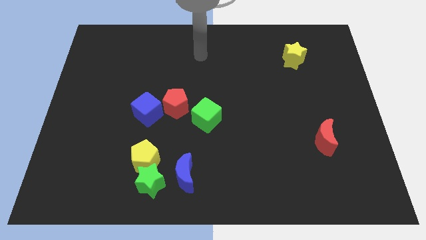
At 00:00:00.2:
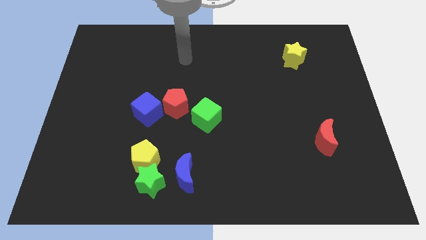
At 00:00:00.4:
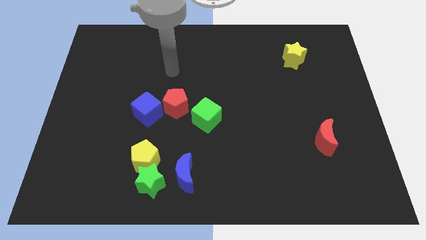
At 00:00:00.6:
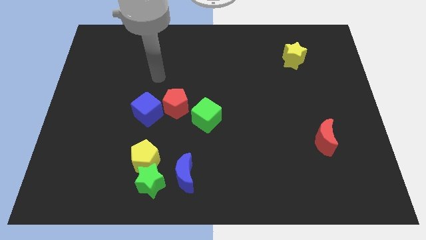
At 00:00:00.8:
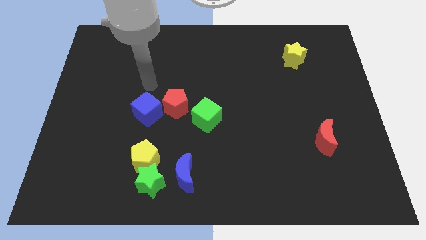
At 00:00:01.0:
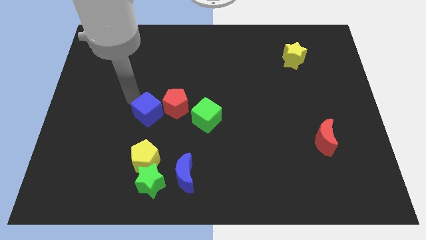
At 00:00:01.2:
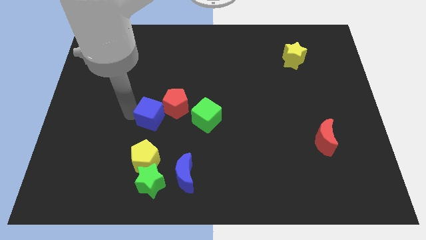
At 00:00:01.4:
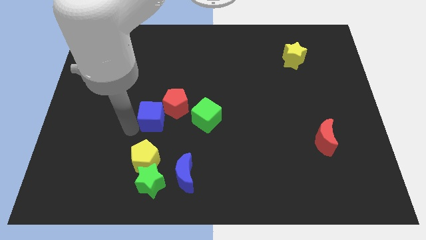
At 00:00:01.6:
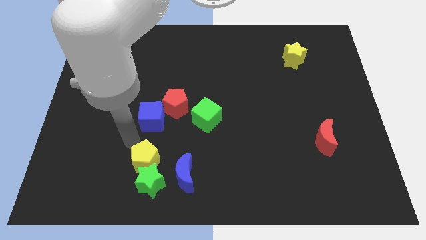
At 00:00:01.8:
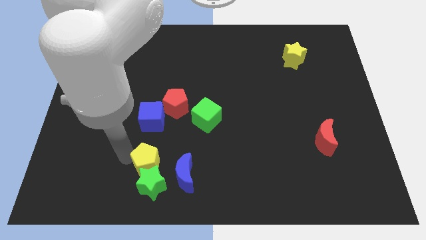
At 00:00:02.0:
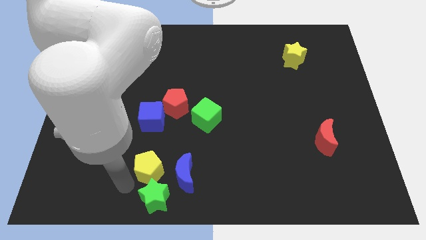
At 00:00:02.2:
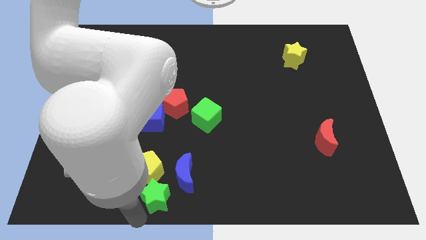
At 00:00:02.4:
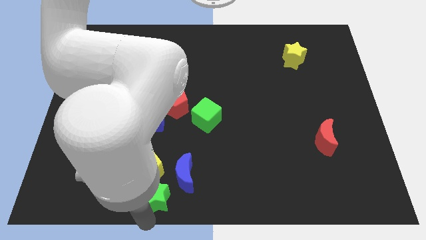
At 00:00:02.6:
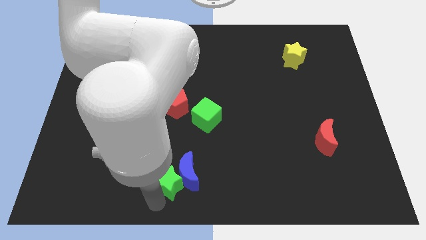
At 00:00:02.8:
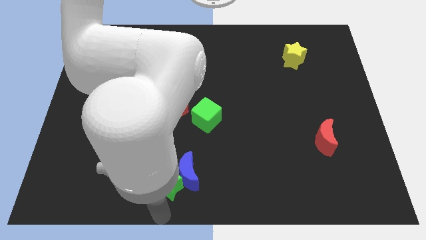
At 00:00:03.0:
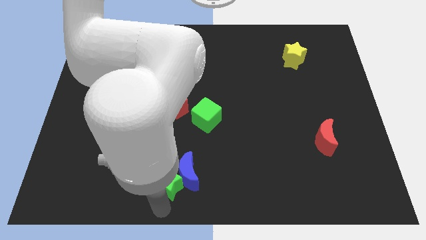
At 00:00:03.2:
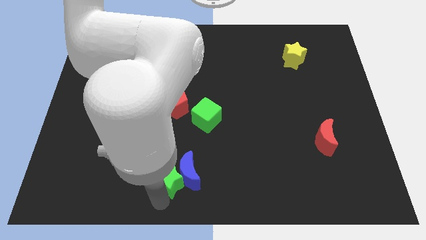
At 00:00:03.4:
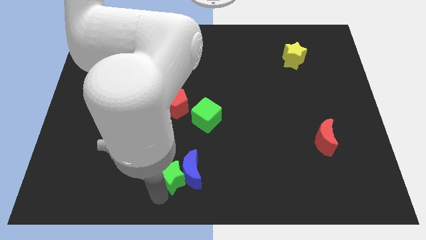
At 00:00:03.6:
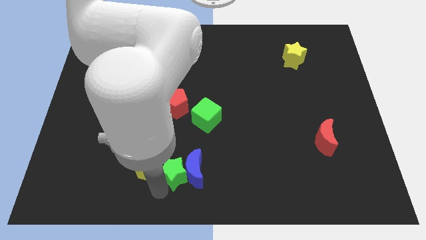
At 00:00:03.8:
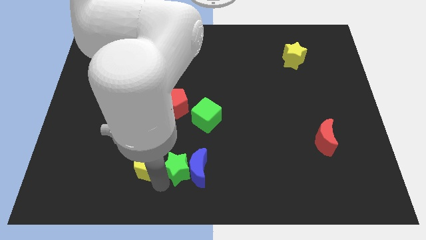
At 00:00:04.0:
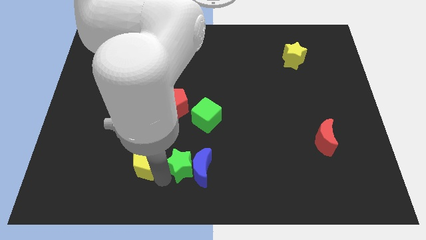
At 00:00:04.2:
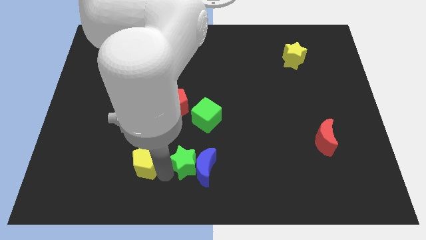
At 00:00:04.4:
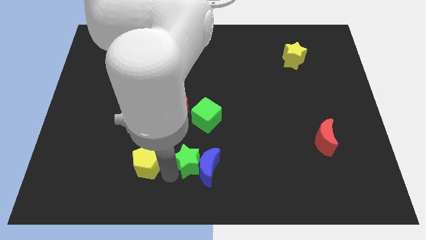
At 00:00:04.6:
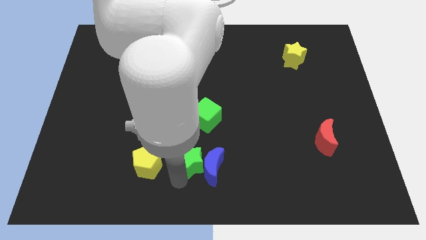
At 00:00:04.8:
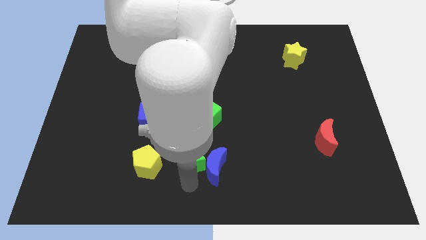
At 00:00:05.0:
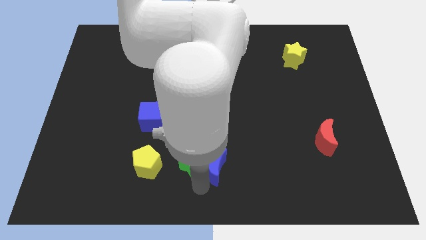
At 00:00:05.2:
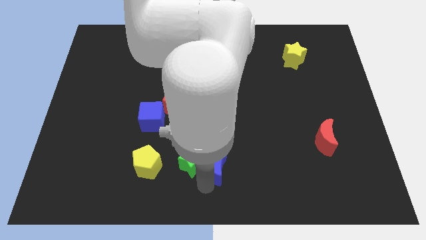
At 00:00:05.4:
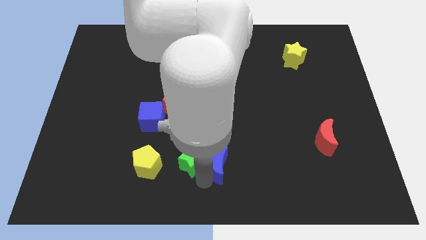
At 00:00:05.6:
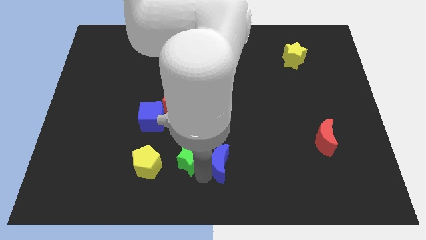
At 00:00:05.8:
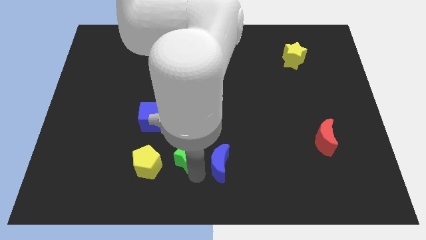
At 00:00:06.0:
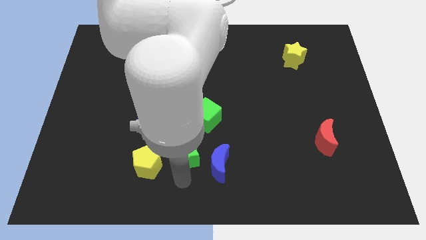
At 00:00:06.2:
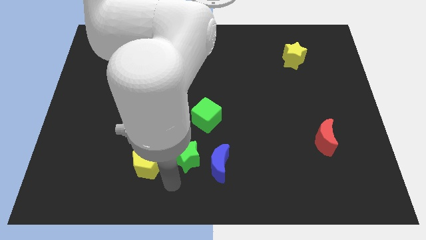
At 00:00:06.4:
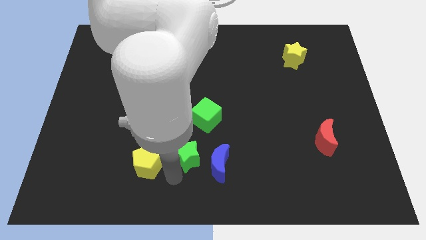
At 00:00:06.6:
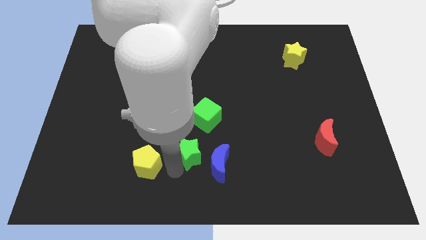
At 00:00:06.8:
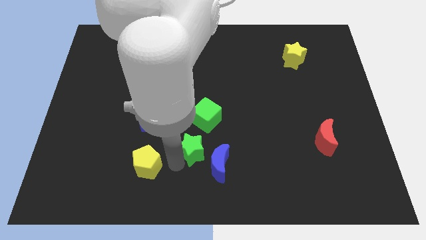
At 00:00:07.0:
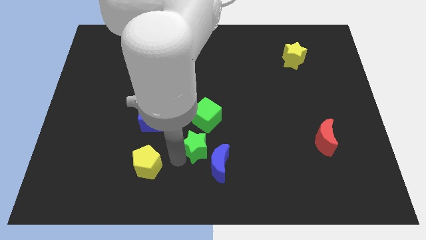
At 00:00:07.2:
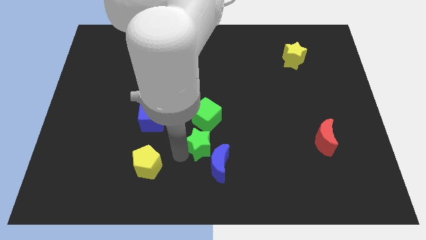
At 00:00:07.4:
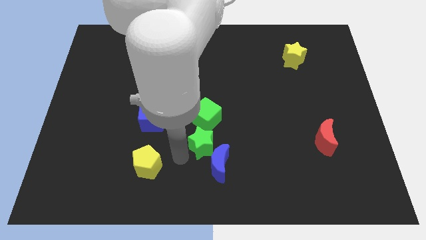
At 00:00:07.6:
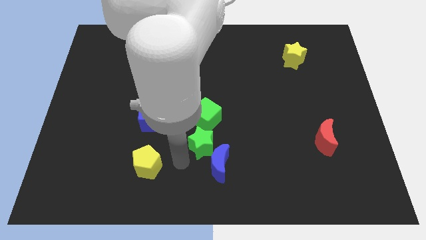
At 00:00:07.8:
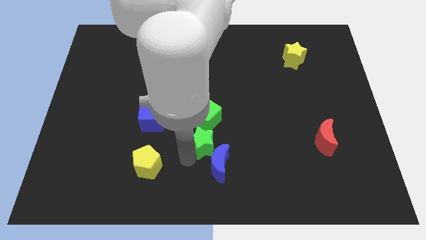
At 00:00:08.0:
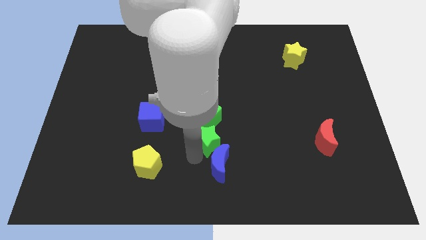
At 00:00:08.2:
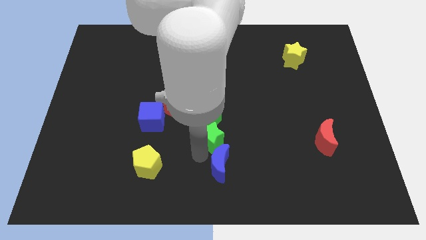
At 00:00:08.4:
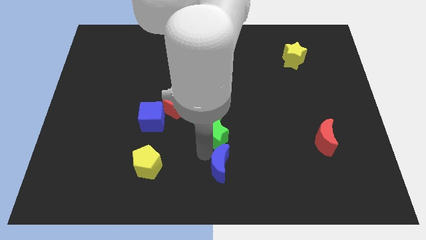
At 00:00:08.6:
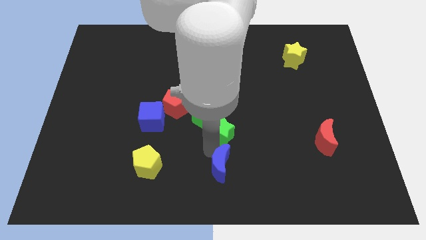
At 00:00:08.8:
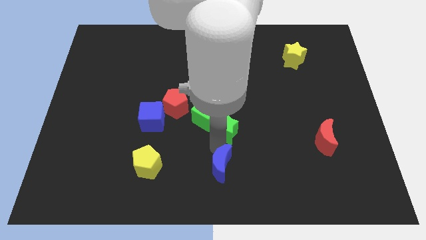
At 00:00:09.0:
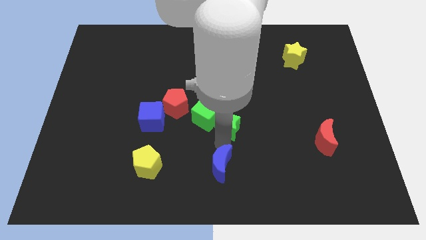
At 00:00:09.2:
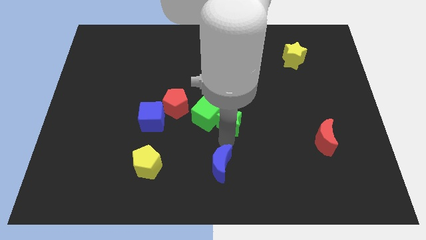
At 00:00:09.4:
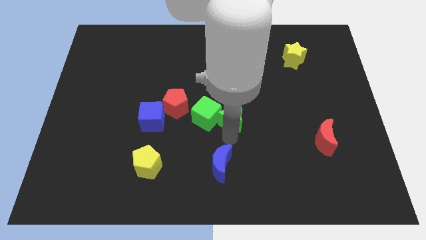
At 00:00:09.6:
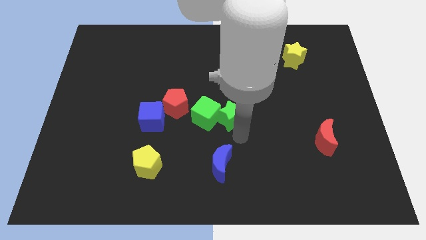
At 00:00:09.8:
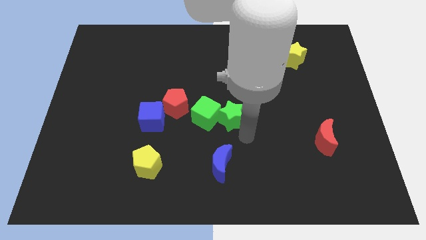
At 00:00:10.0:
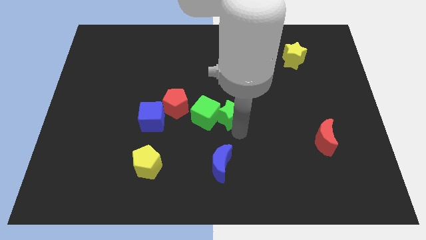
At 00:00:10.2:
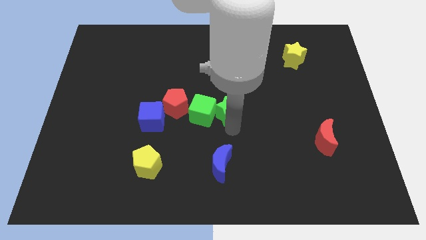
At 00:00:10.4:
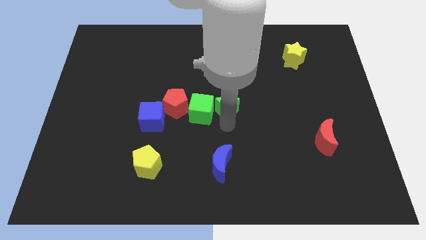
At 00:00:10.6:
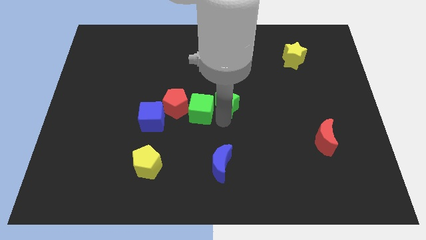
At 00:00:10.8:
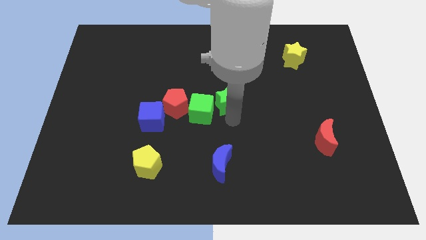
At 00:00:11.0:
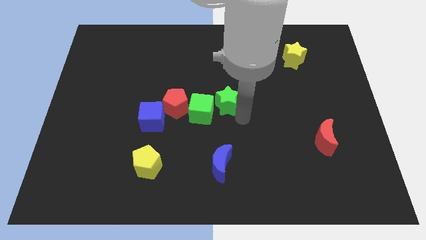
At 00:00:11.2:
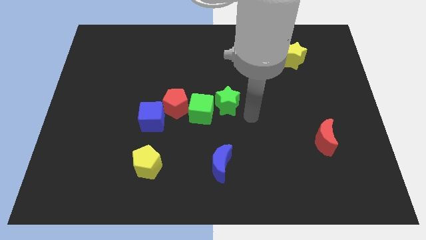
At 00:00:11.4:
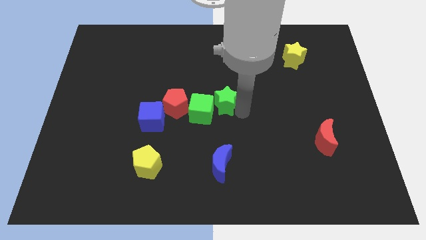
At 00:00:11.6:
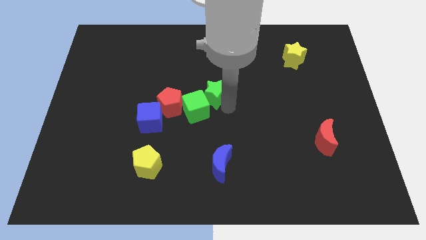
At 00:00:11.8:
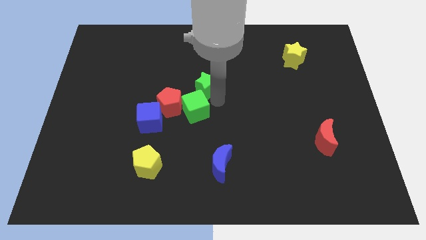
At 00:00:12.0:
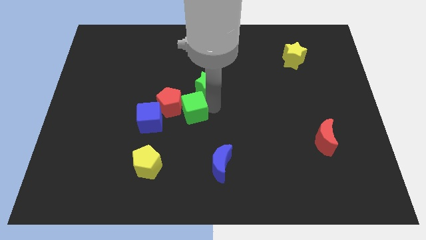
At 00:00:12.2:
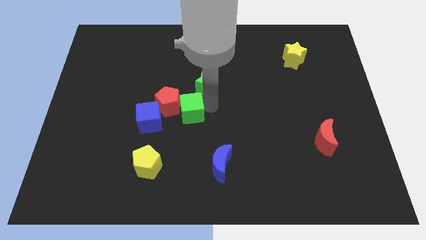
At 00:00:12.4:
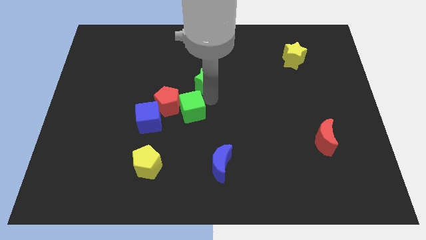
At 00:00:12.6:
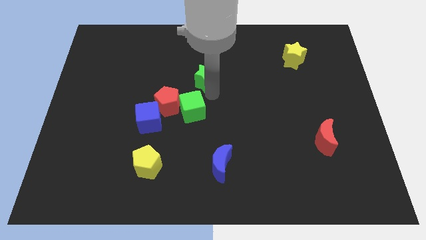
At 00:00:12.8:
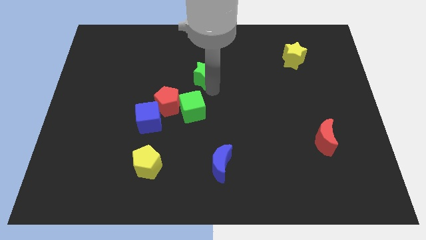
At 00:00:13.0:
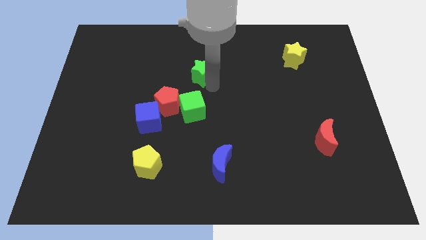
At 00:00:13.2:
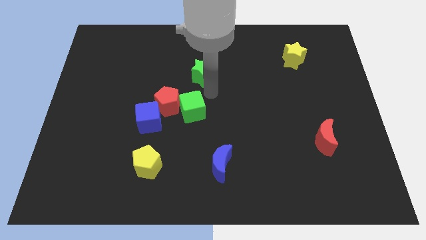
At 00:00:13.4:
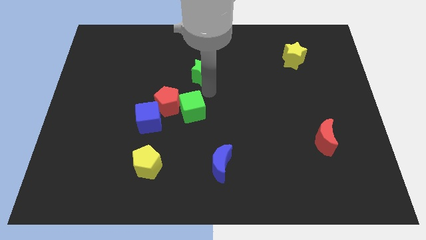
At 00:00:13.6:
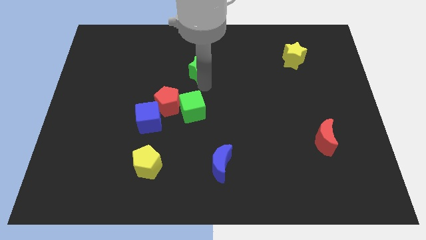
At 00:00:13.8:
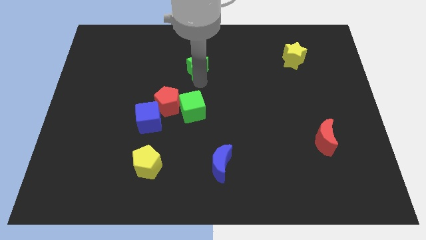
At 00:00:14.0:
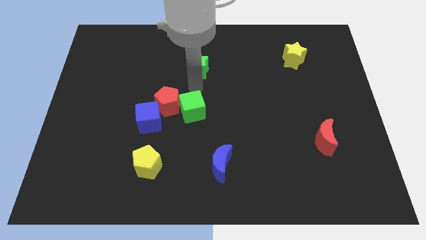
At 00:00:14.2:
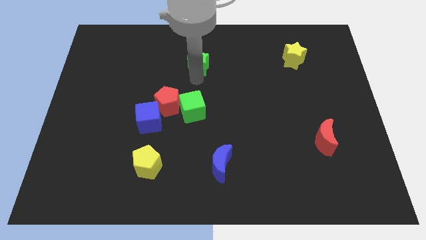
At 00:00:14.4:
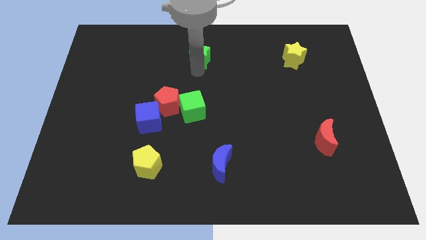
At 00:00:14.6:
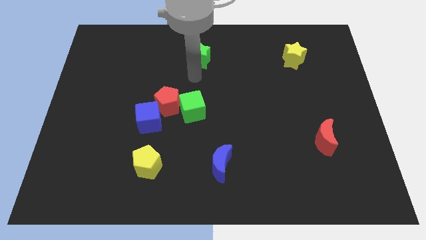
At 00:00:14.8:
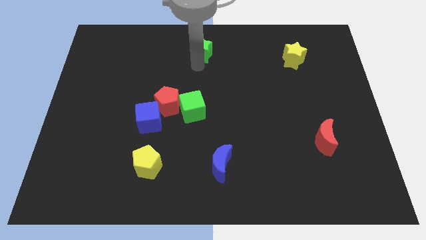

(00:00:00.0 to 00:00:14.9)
push the green star to the top
